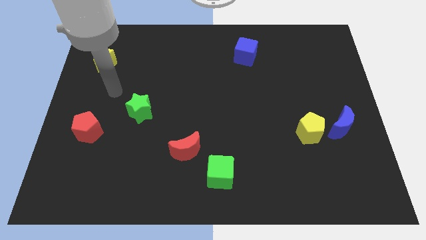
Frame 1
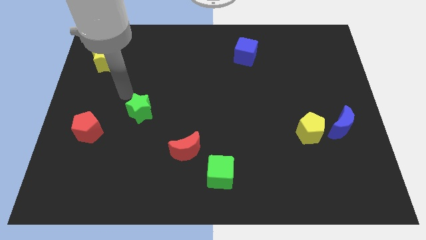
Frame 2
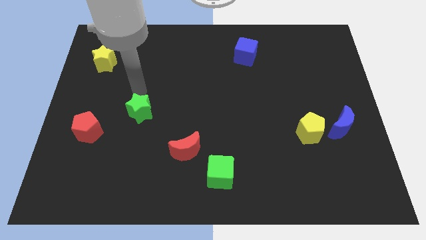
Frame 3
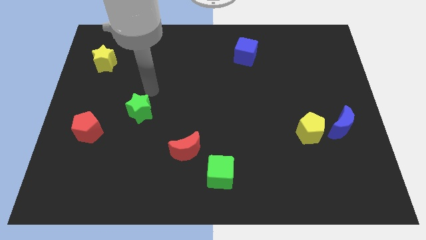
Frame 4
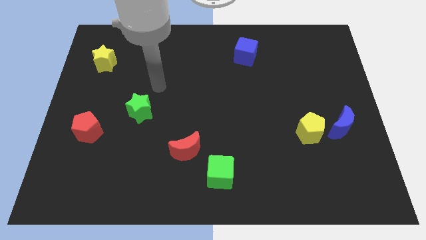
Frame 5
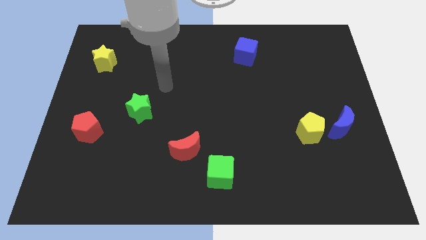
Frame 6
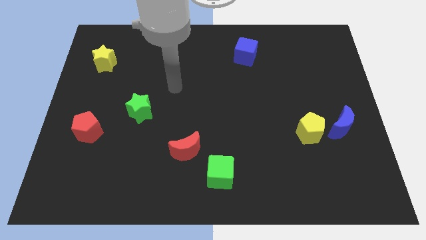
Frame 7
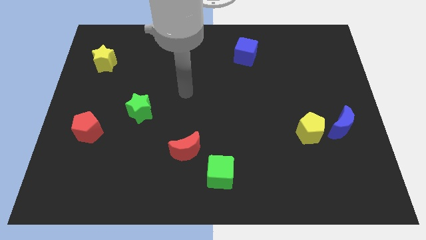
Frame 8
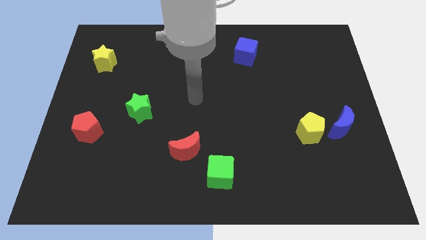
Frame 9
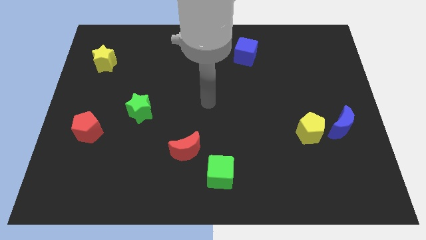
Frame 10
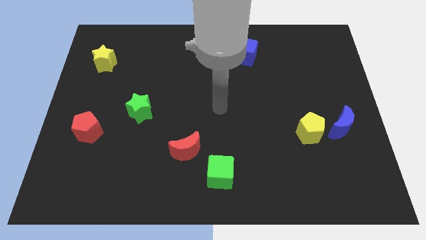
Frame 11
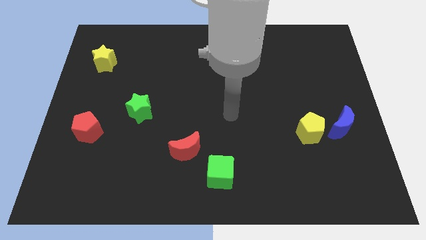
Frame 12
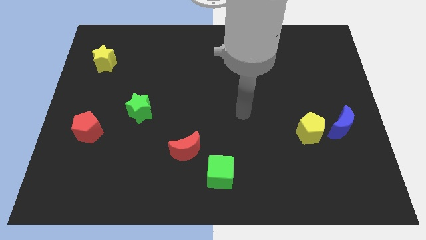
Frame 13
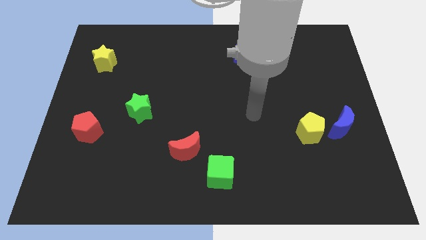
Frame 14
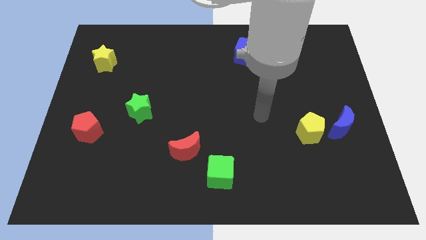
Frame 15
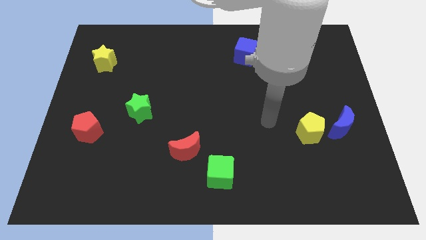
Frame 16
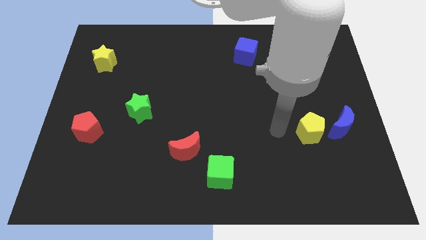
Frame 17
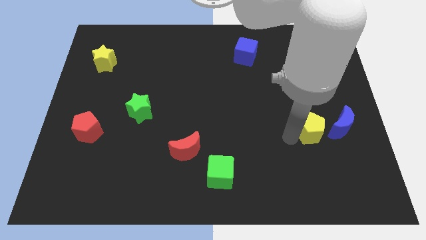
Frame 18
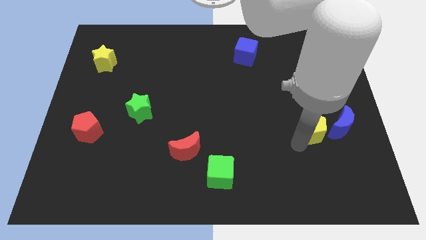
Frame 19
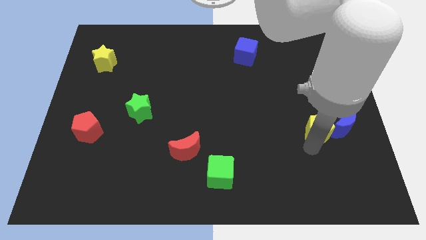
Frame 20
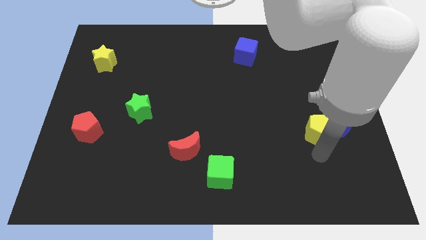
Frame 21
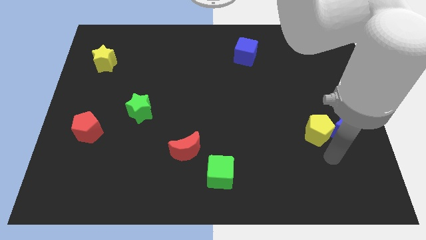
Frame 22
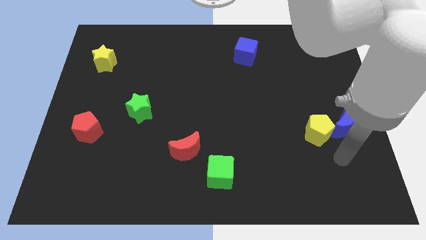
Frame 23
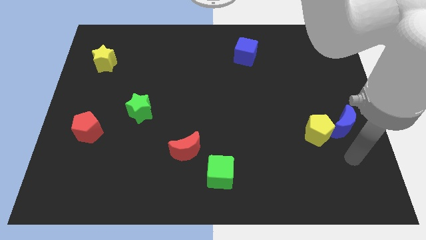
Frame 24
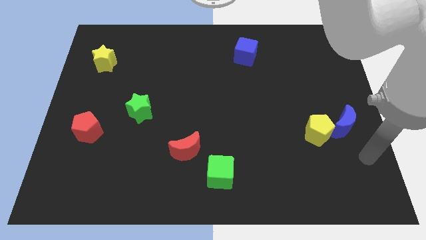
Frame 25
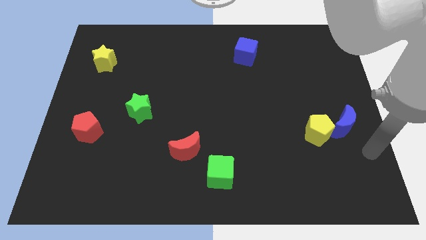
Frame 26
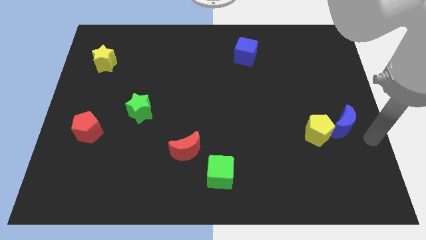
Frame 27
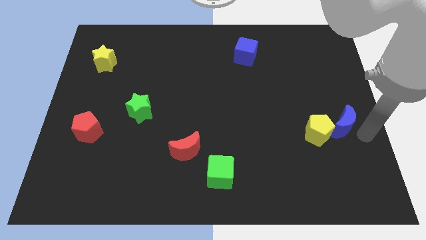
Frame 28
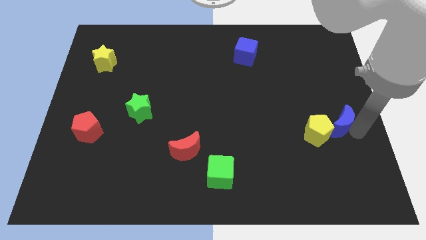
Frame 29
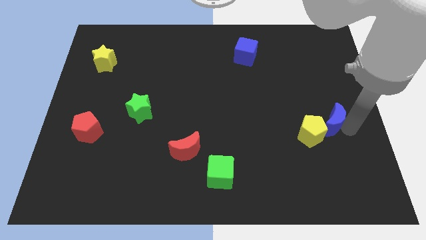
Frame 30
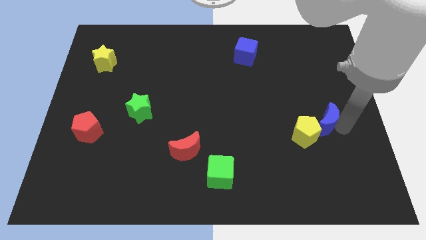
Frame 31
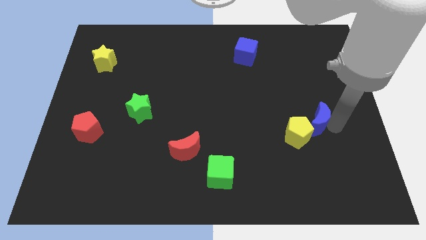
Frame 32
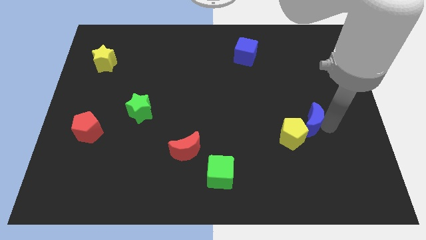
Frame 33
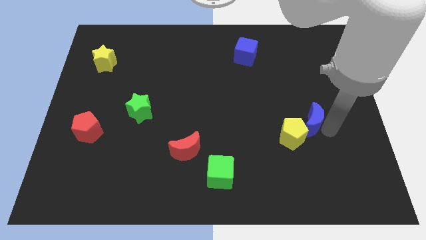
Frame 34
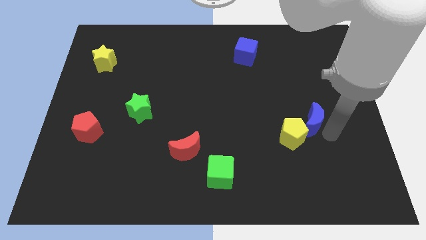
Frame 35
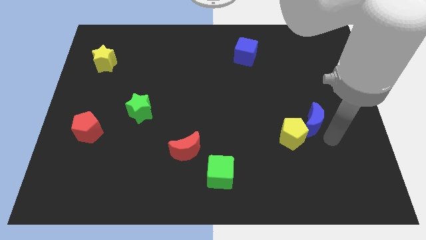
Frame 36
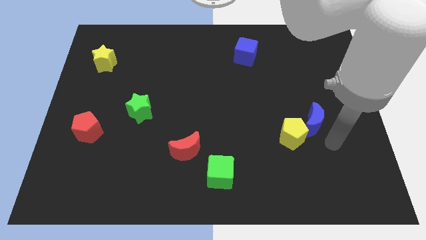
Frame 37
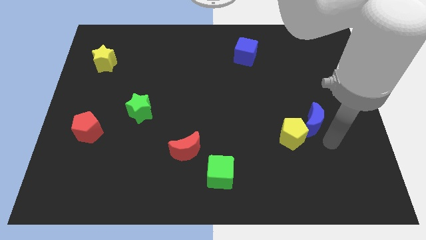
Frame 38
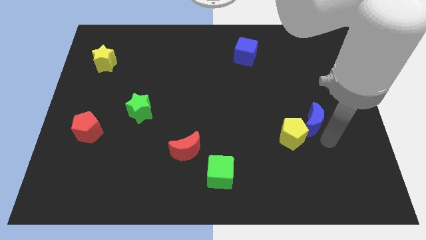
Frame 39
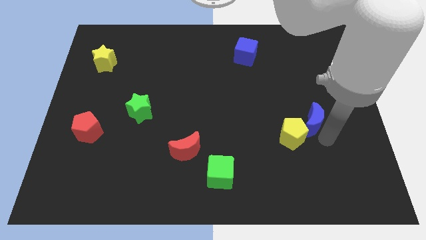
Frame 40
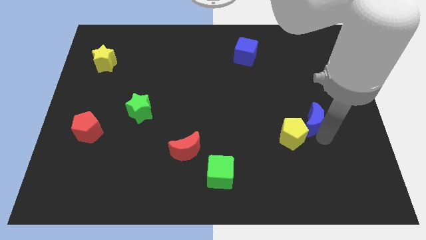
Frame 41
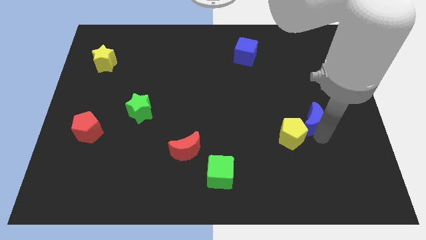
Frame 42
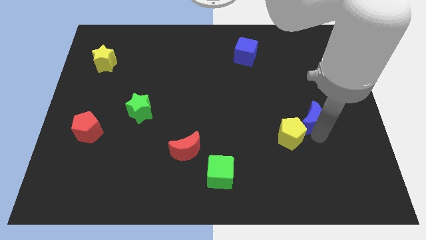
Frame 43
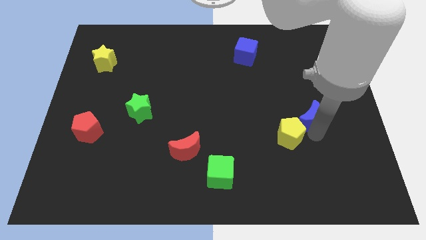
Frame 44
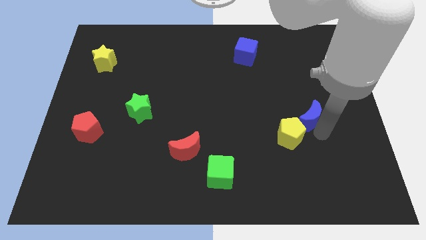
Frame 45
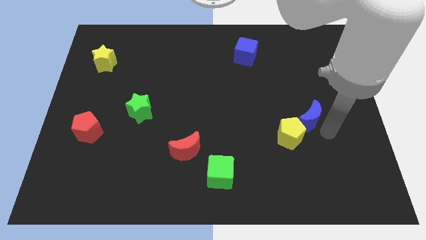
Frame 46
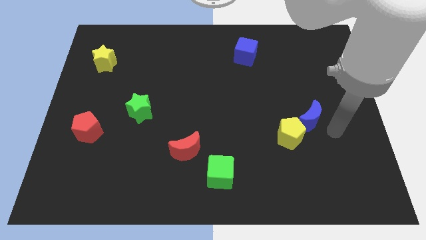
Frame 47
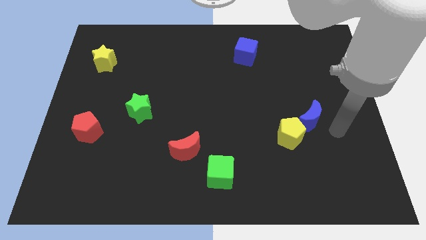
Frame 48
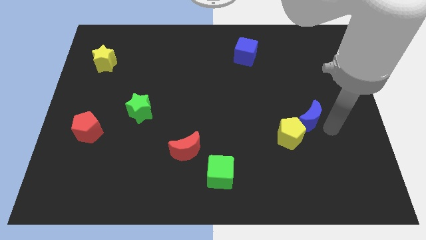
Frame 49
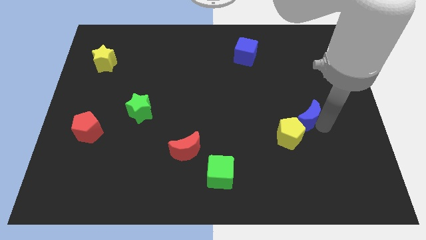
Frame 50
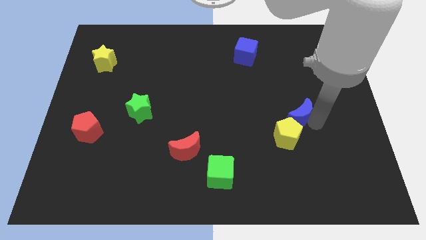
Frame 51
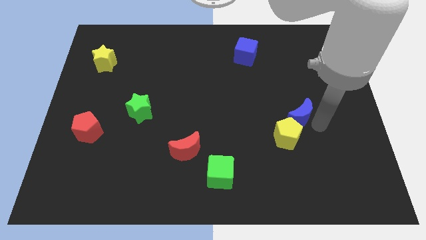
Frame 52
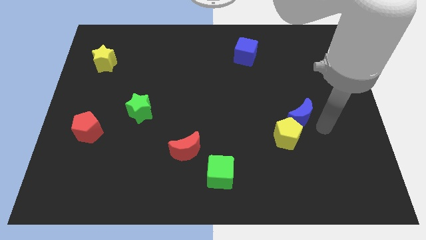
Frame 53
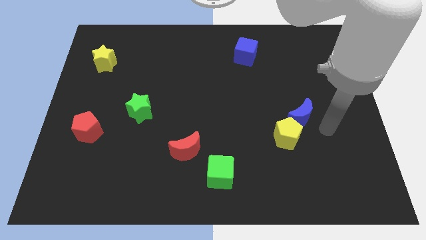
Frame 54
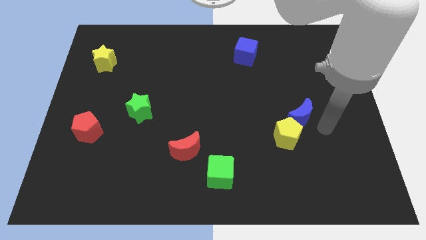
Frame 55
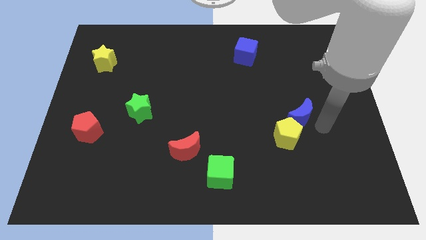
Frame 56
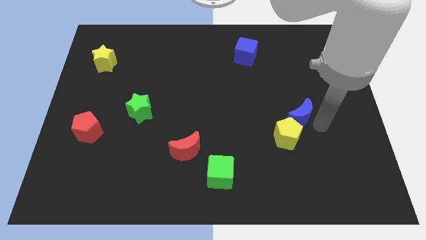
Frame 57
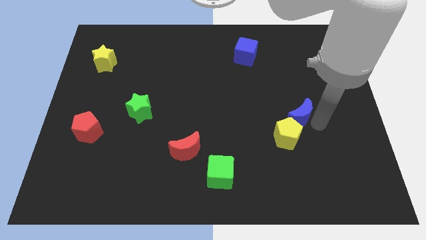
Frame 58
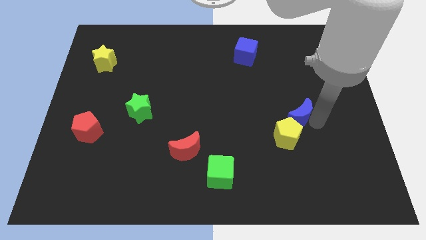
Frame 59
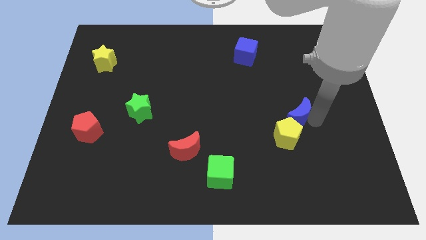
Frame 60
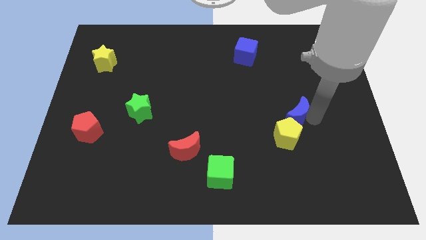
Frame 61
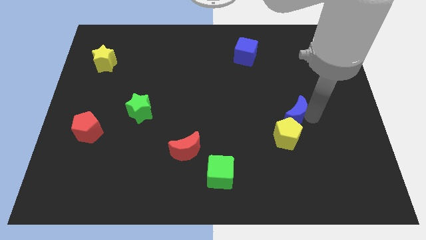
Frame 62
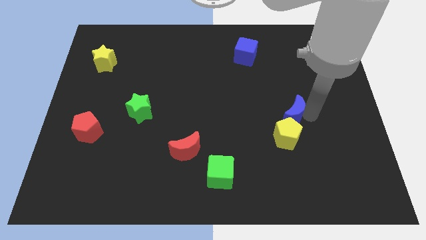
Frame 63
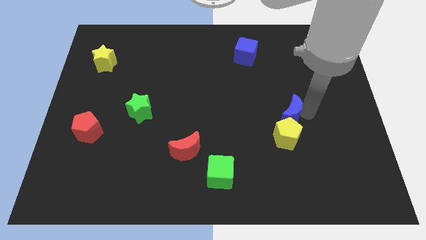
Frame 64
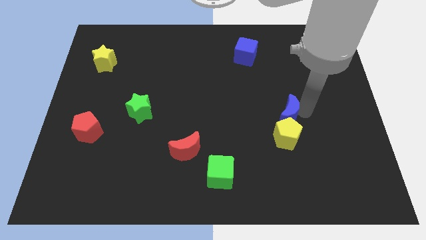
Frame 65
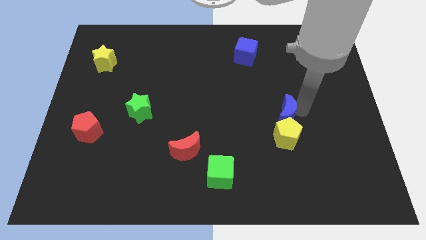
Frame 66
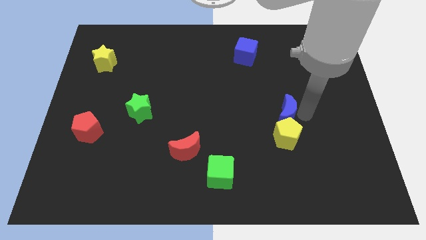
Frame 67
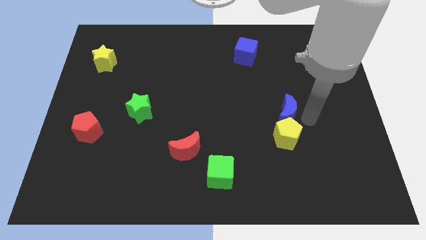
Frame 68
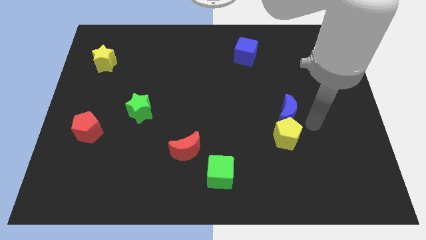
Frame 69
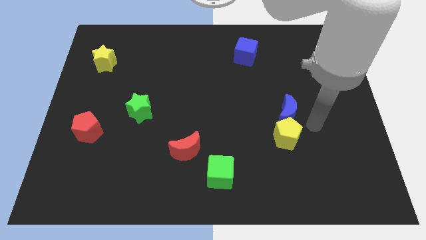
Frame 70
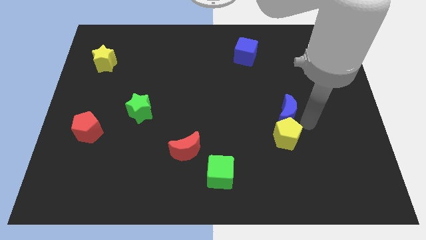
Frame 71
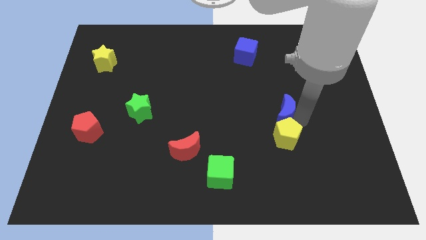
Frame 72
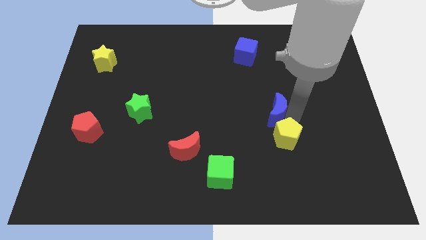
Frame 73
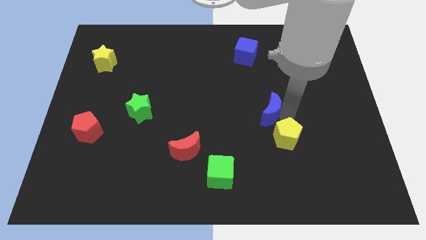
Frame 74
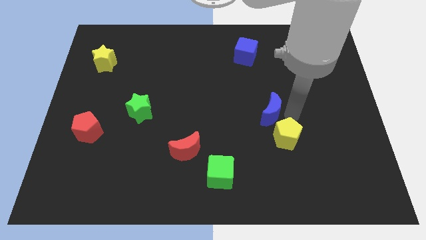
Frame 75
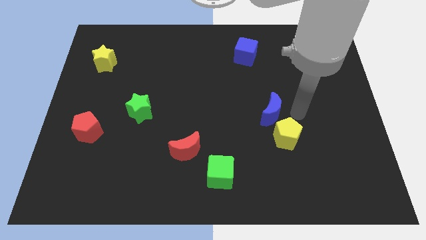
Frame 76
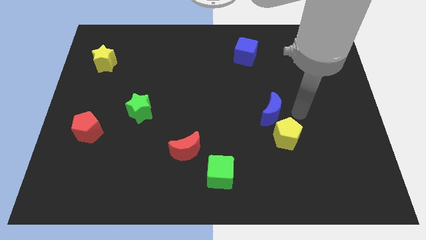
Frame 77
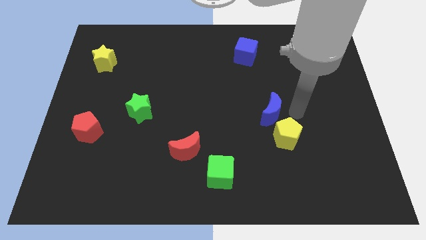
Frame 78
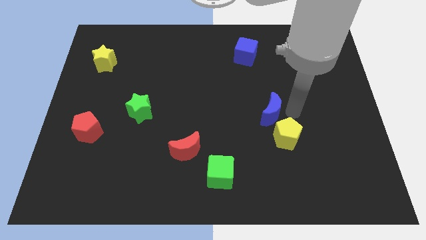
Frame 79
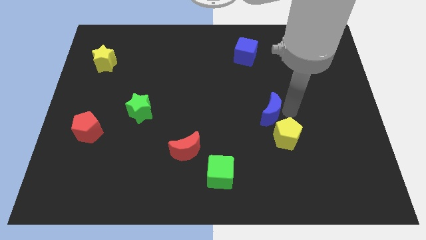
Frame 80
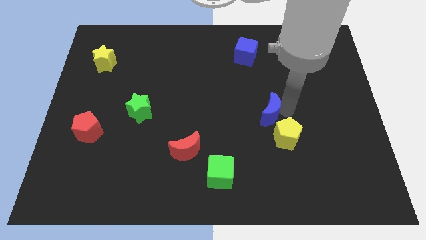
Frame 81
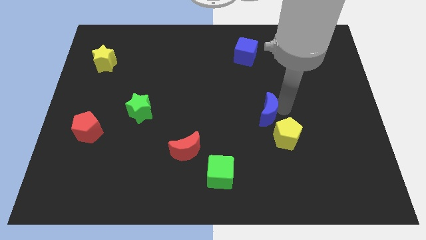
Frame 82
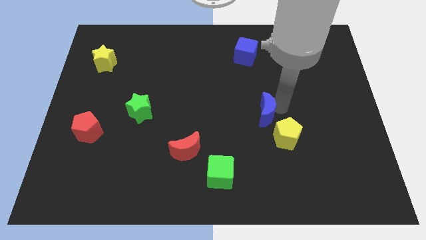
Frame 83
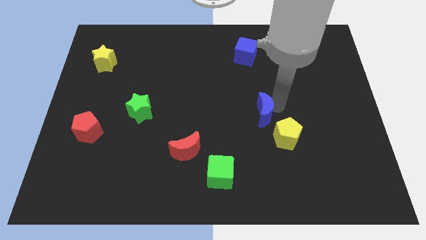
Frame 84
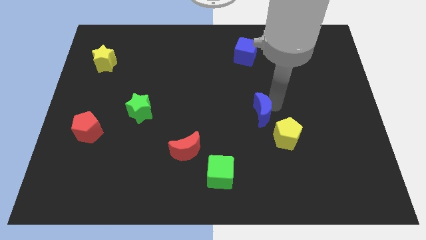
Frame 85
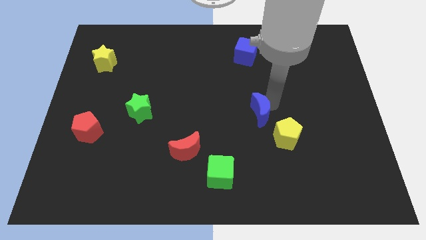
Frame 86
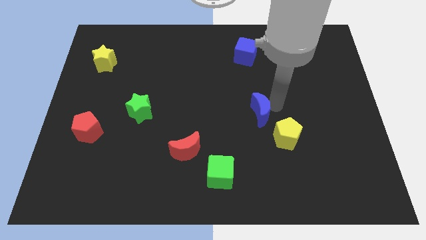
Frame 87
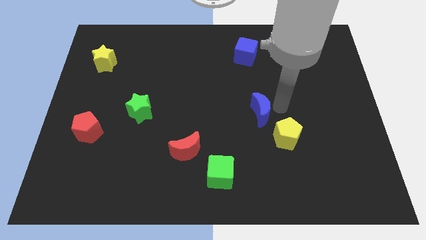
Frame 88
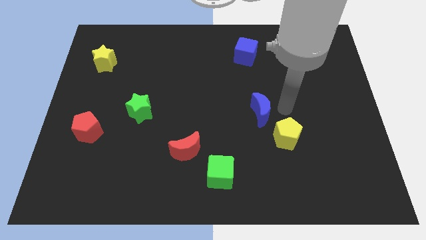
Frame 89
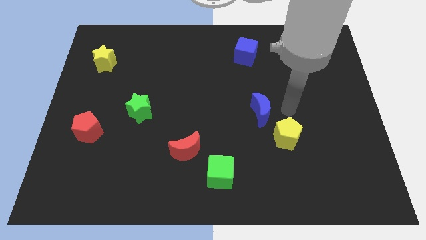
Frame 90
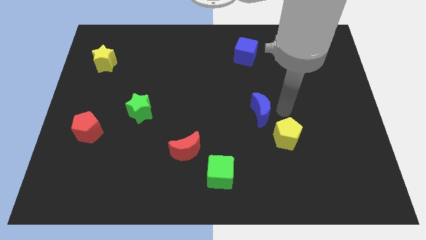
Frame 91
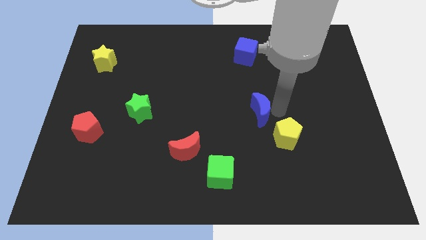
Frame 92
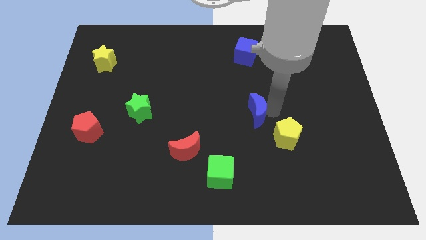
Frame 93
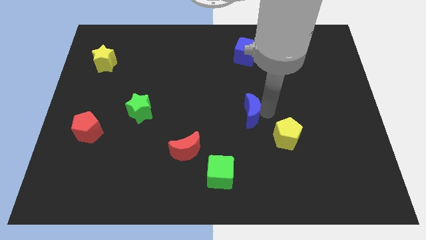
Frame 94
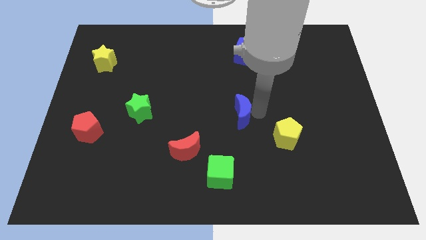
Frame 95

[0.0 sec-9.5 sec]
move the blue moon to the left
